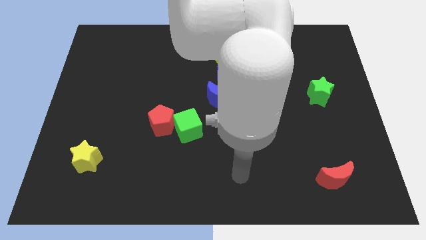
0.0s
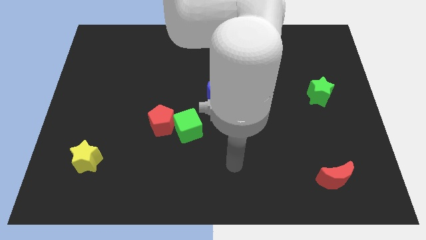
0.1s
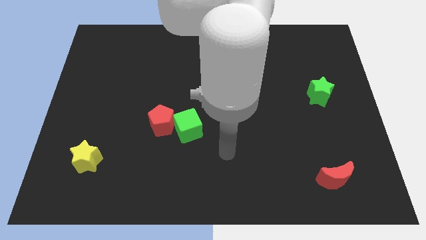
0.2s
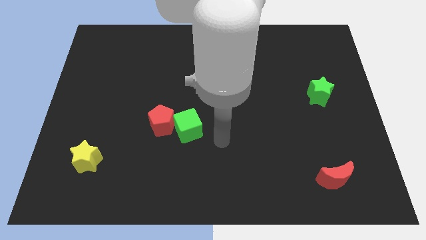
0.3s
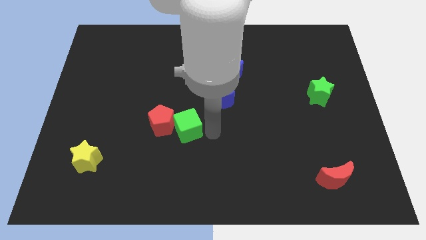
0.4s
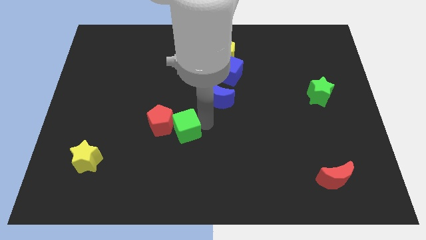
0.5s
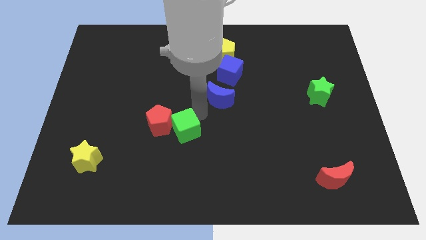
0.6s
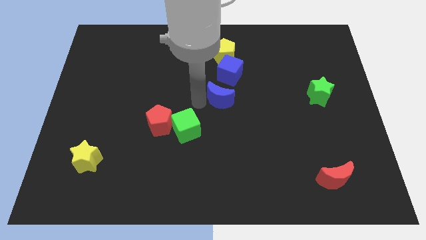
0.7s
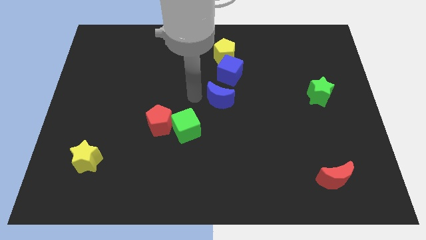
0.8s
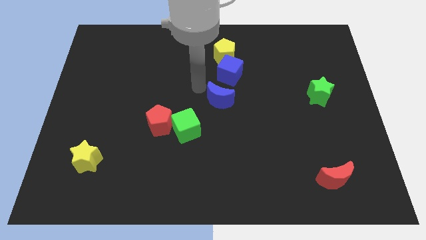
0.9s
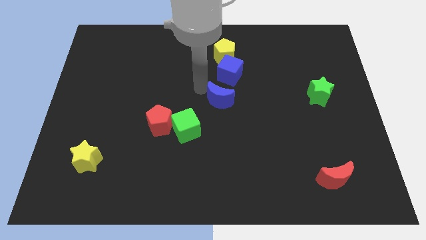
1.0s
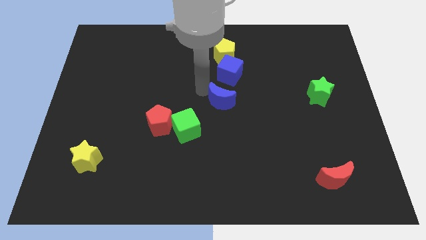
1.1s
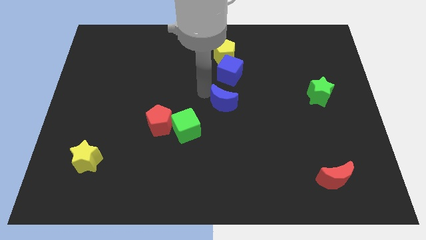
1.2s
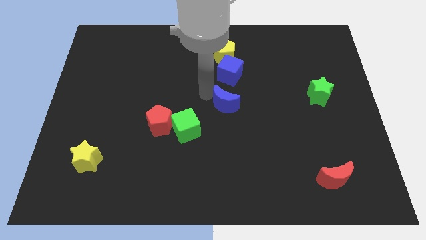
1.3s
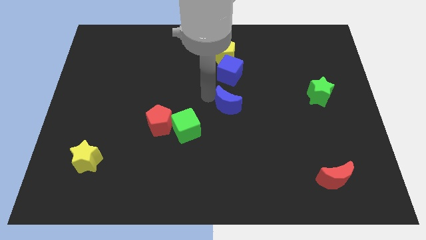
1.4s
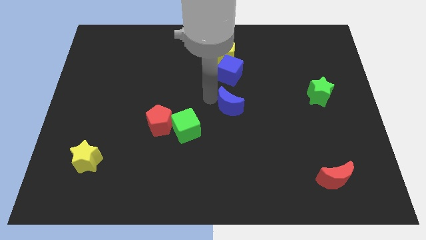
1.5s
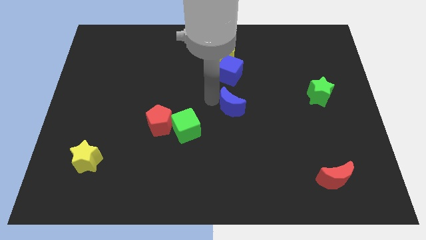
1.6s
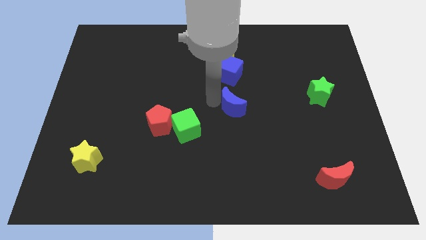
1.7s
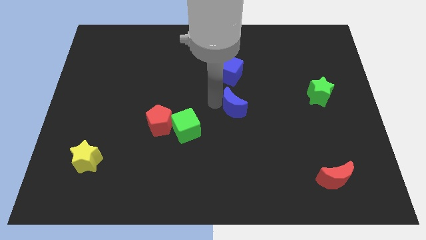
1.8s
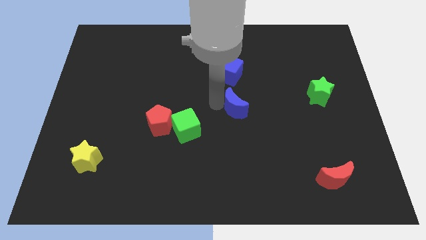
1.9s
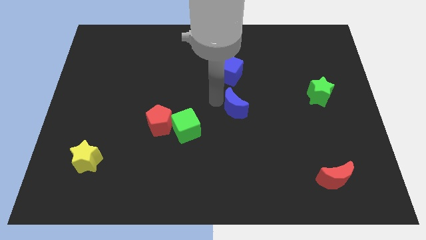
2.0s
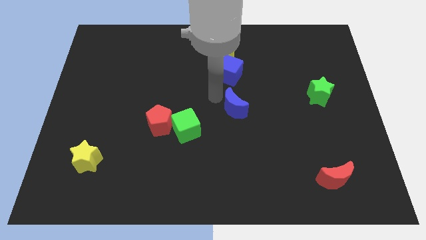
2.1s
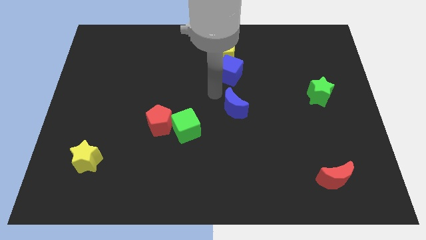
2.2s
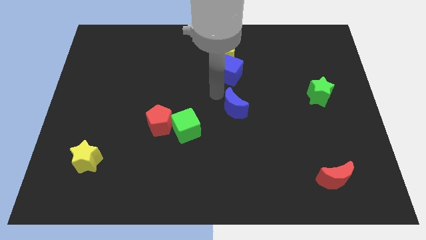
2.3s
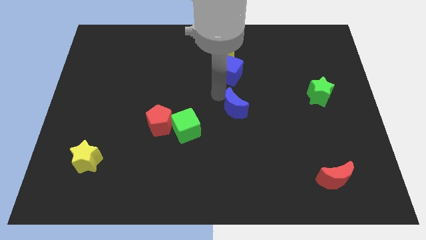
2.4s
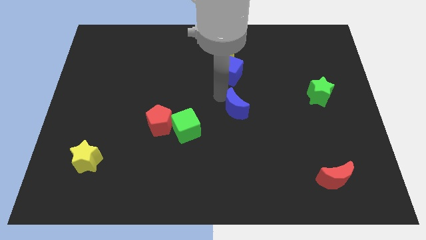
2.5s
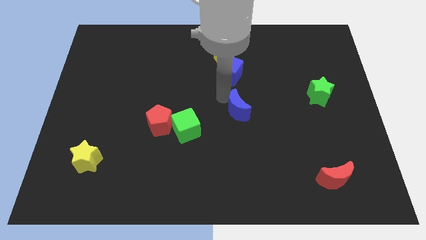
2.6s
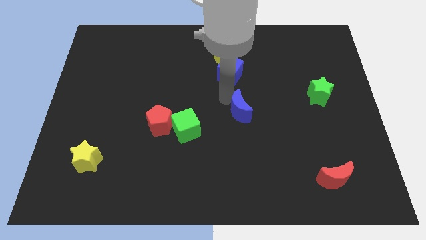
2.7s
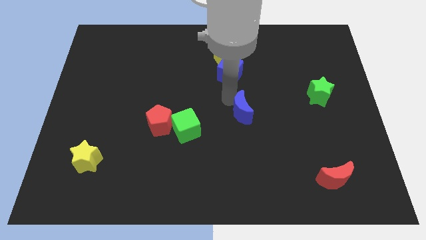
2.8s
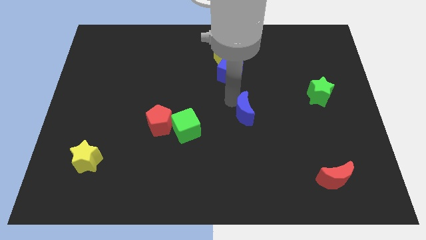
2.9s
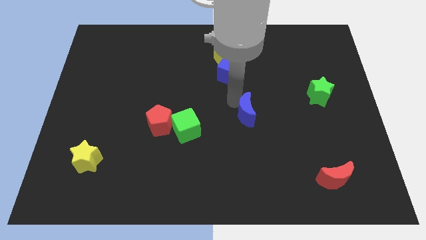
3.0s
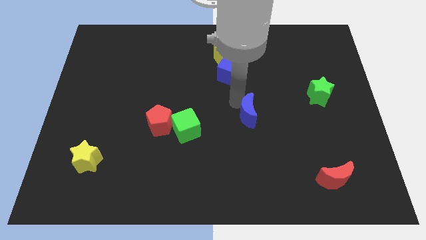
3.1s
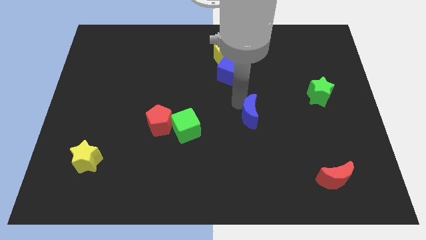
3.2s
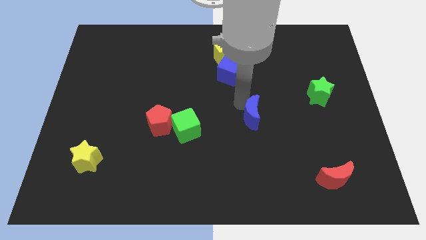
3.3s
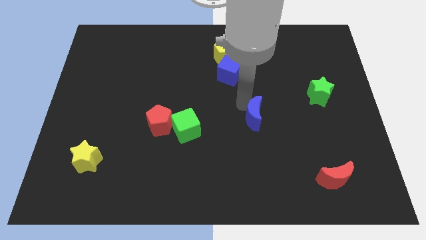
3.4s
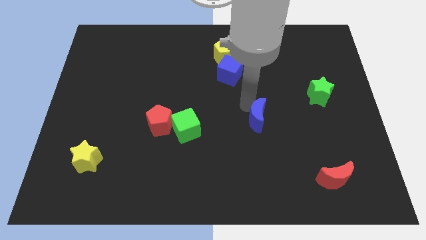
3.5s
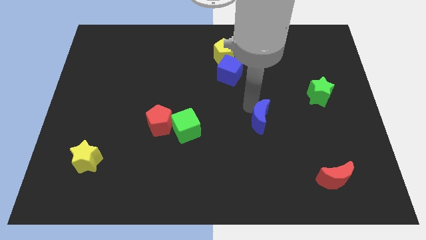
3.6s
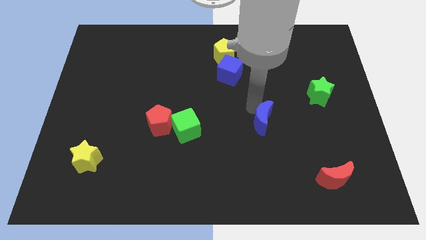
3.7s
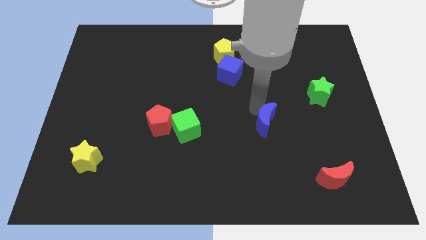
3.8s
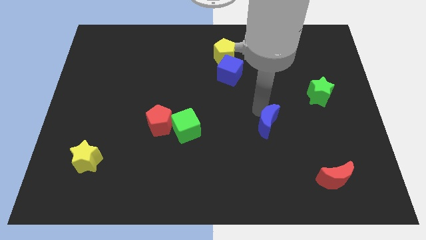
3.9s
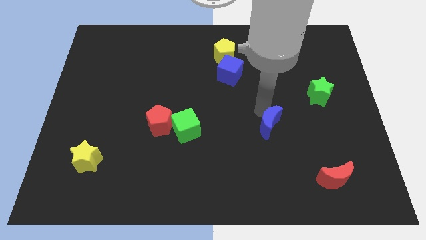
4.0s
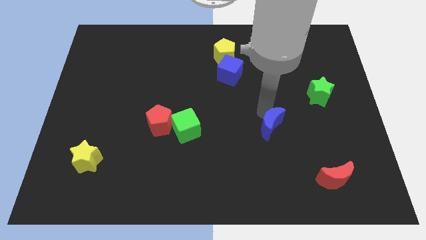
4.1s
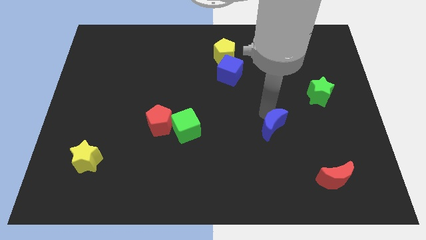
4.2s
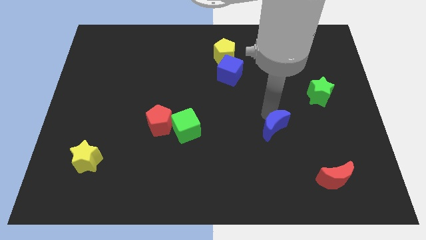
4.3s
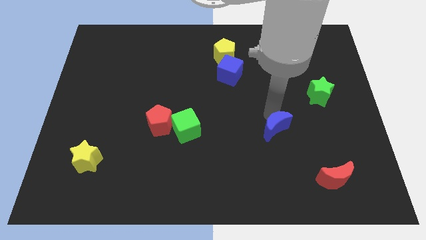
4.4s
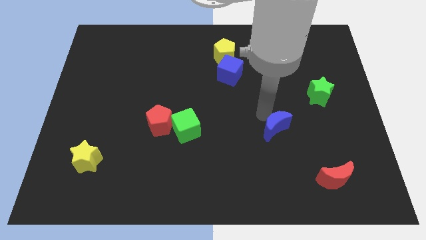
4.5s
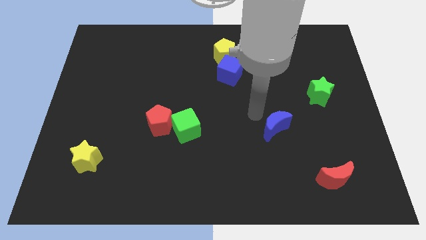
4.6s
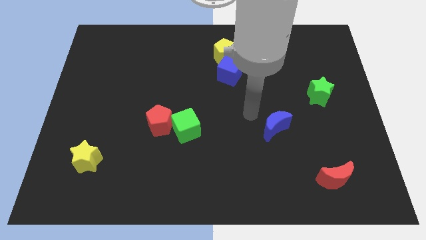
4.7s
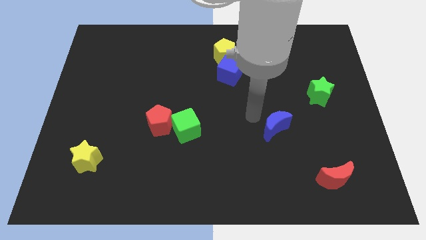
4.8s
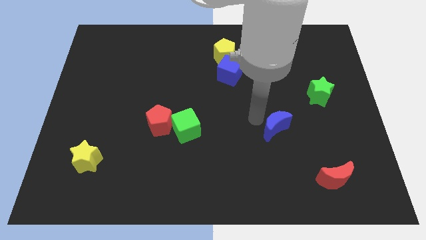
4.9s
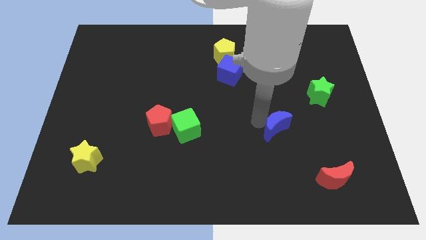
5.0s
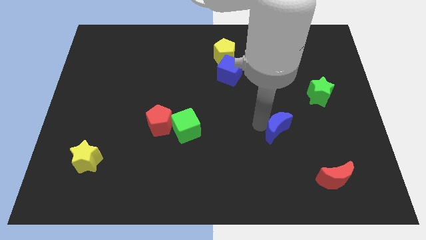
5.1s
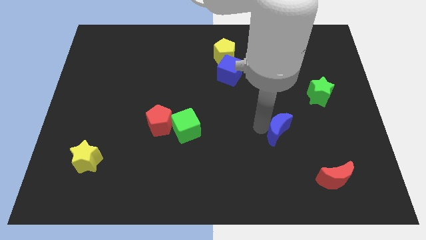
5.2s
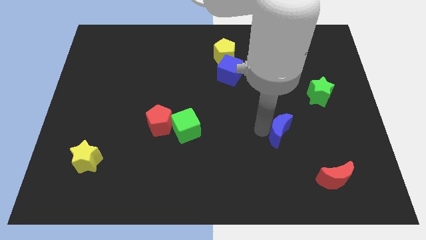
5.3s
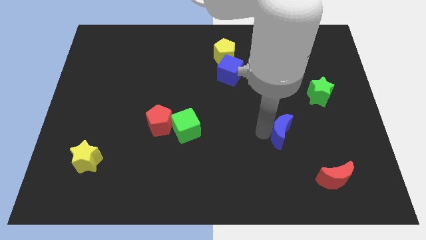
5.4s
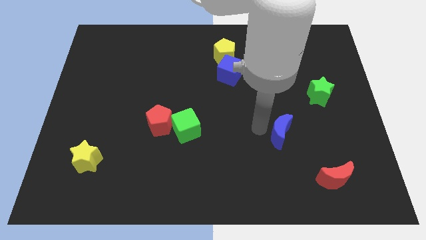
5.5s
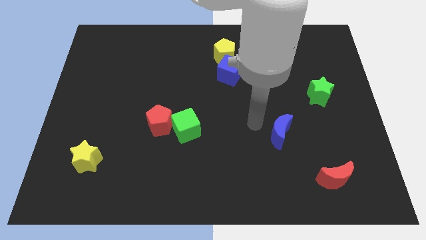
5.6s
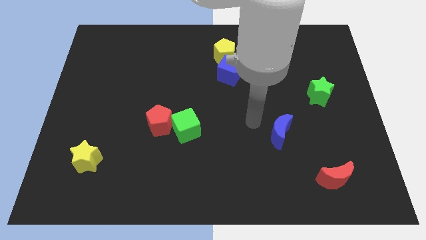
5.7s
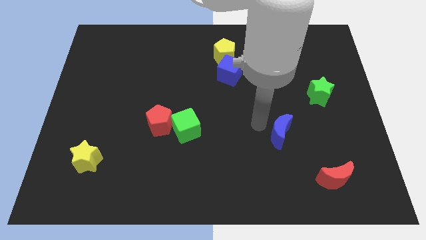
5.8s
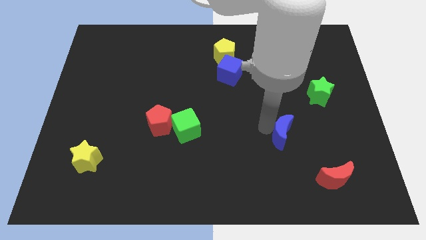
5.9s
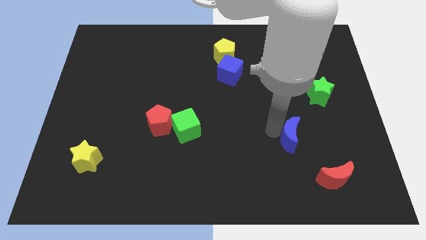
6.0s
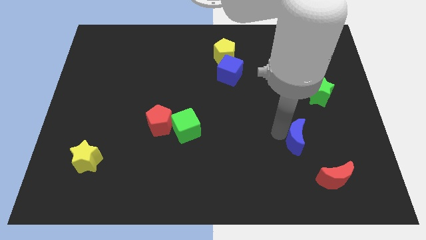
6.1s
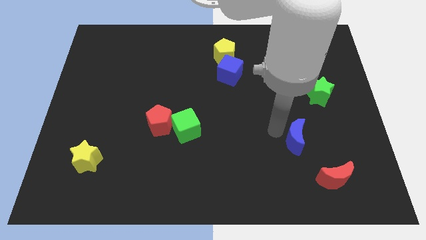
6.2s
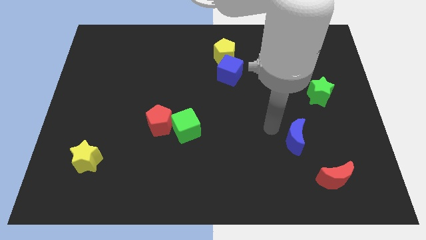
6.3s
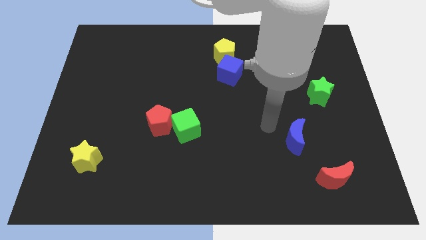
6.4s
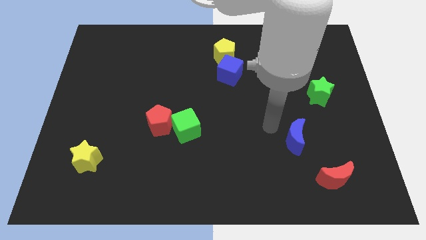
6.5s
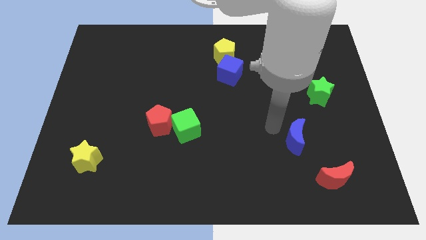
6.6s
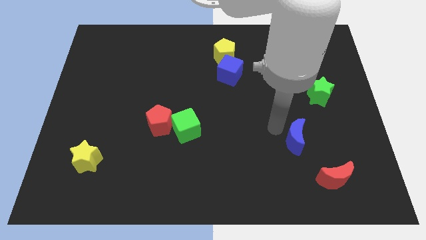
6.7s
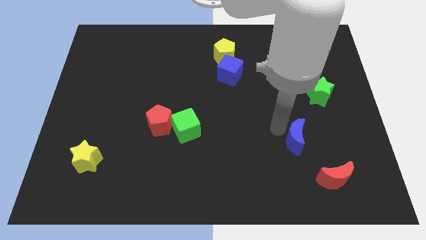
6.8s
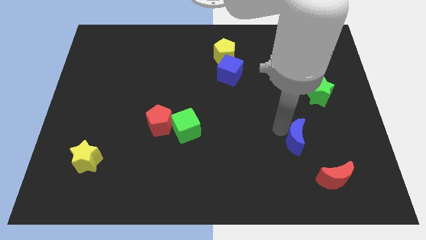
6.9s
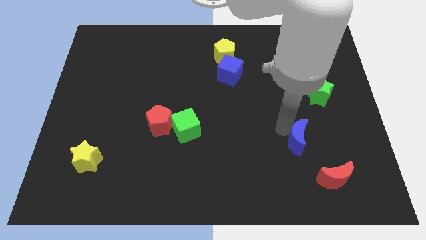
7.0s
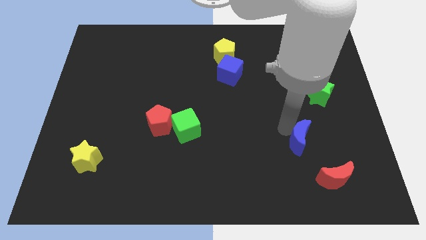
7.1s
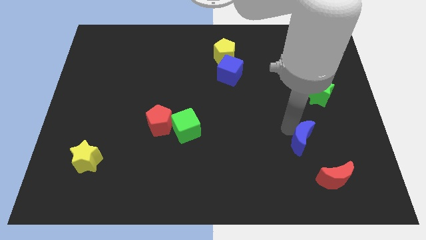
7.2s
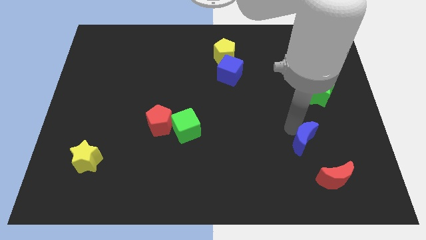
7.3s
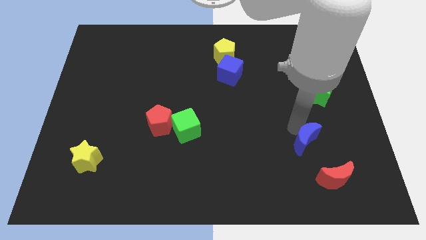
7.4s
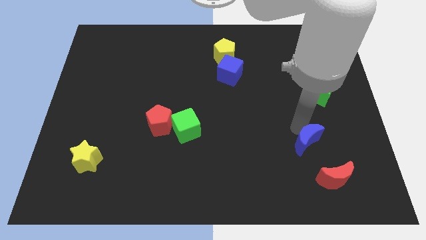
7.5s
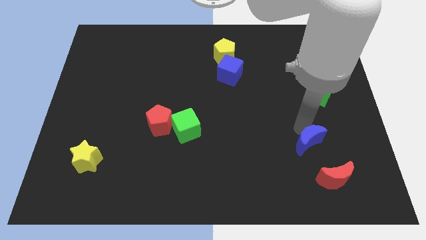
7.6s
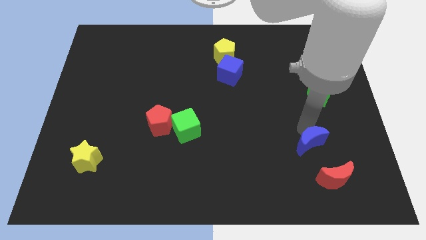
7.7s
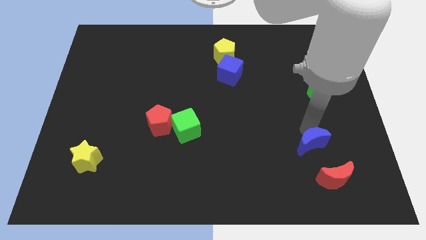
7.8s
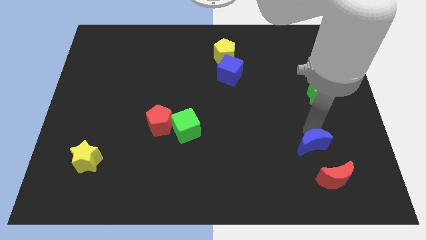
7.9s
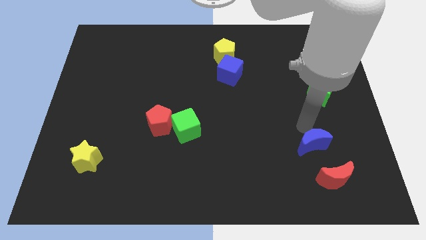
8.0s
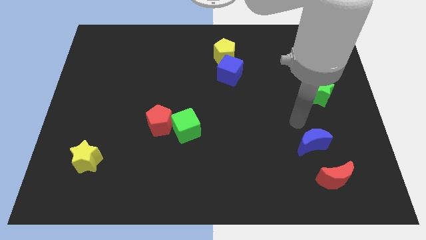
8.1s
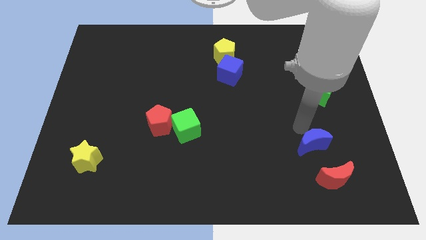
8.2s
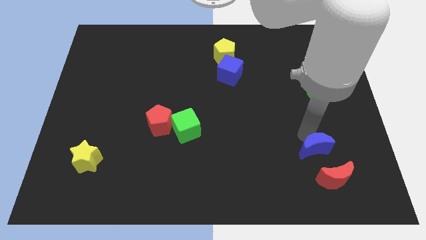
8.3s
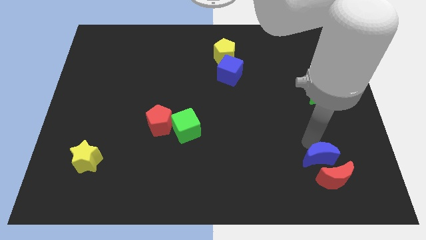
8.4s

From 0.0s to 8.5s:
move the blue moon close to the red moon
